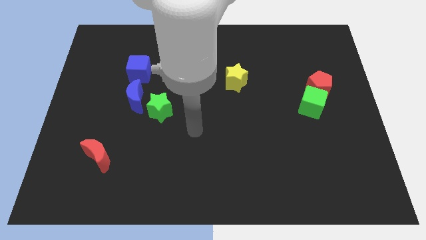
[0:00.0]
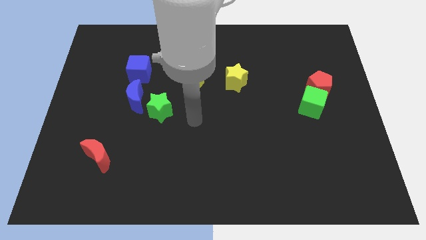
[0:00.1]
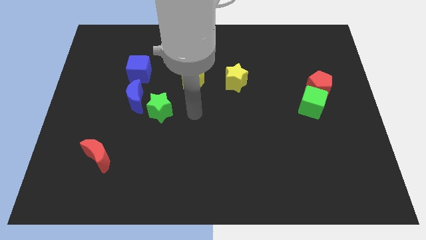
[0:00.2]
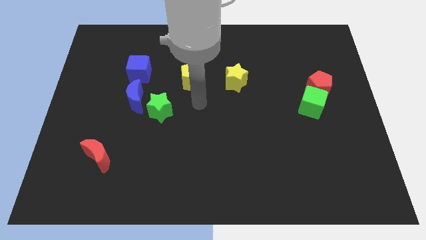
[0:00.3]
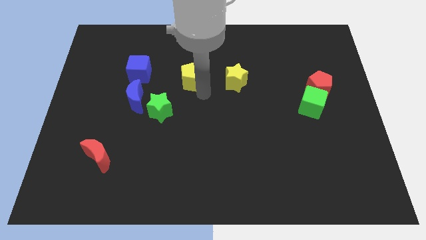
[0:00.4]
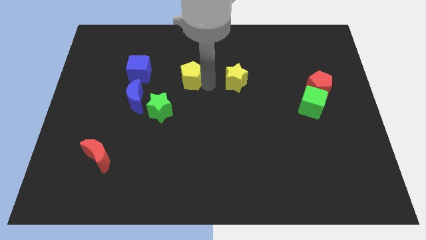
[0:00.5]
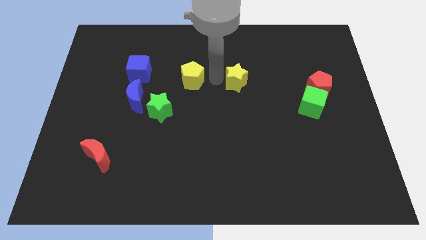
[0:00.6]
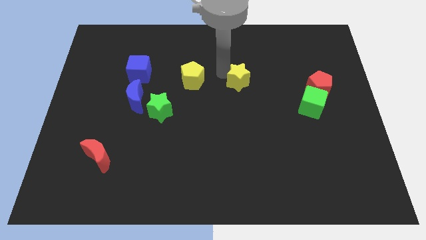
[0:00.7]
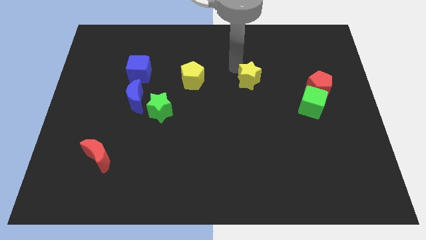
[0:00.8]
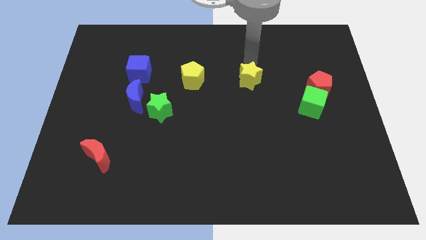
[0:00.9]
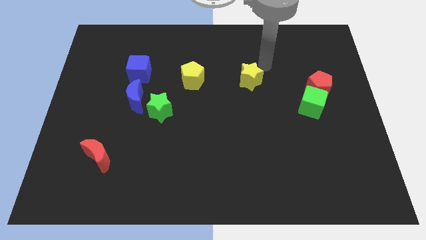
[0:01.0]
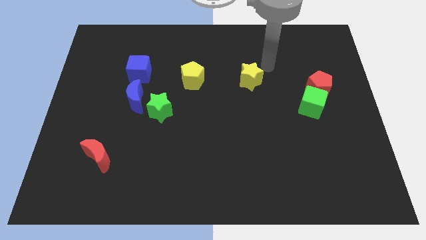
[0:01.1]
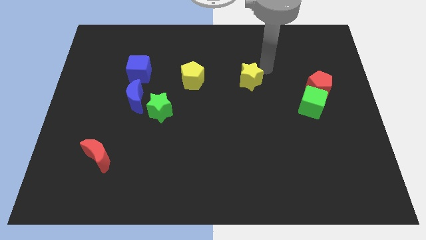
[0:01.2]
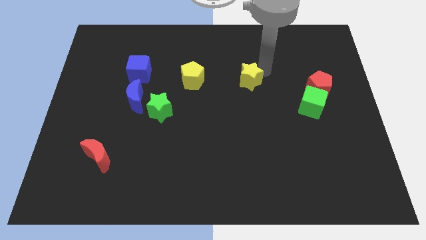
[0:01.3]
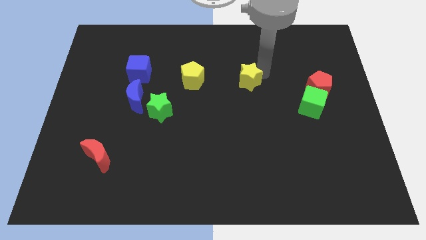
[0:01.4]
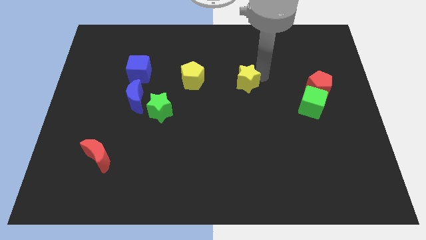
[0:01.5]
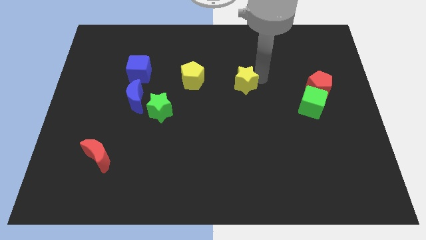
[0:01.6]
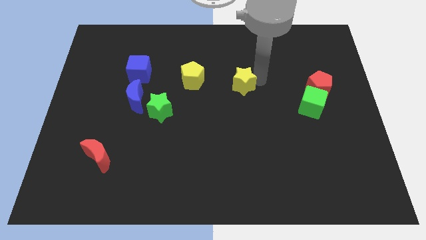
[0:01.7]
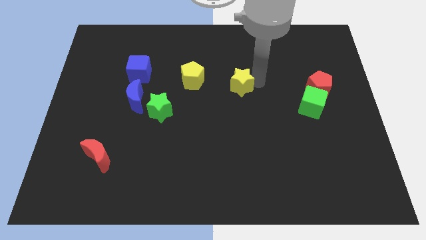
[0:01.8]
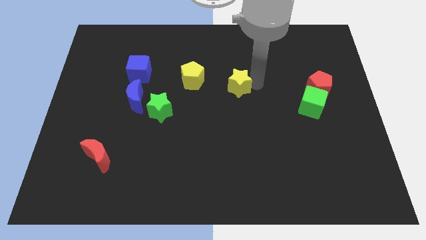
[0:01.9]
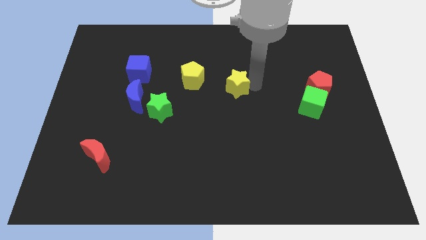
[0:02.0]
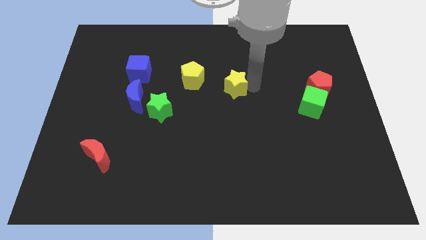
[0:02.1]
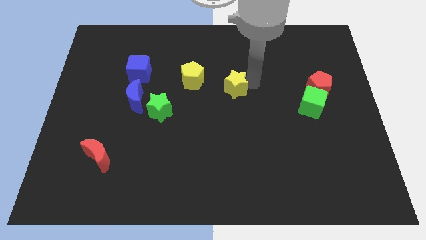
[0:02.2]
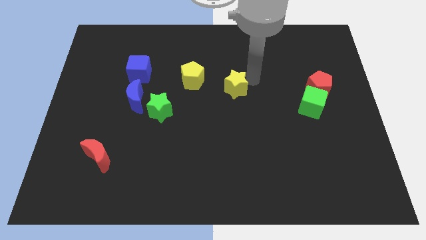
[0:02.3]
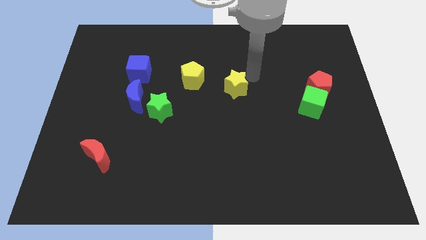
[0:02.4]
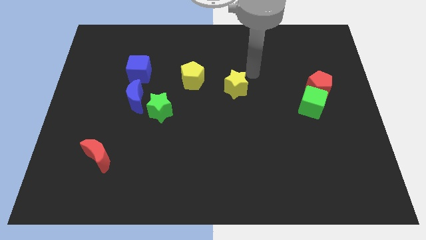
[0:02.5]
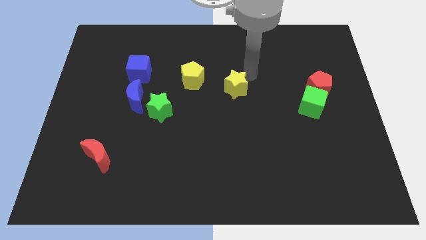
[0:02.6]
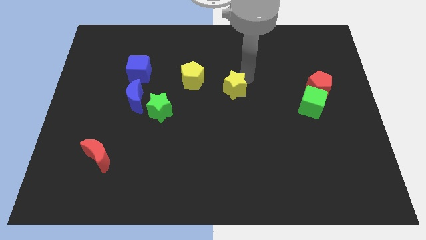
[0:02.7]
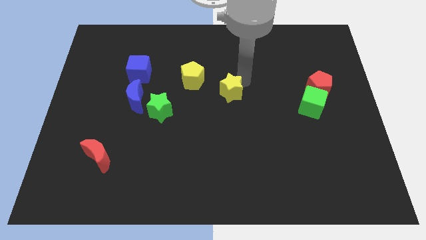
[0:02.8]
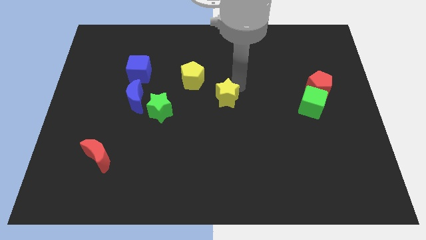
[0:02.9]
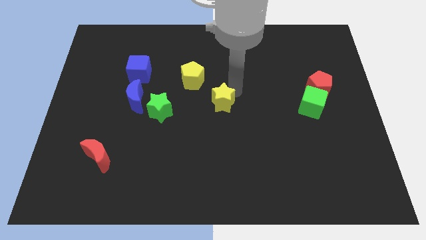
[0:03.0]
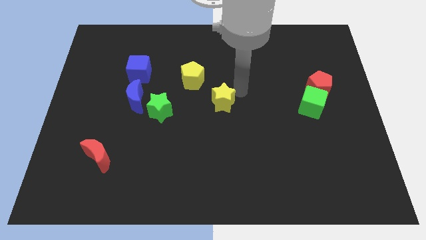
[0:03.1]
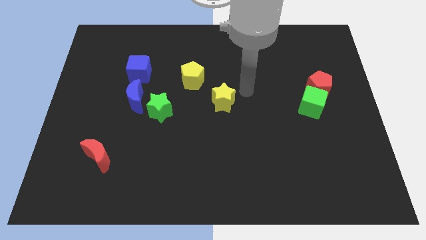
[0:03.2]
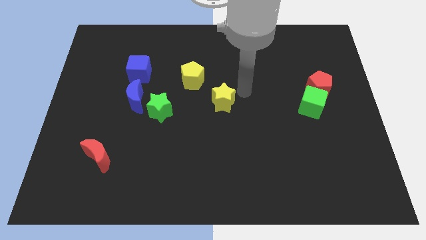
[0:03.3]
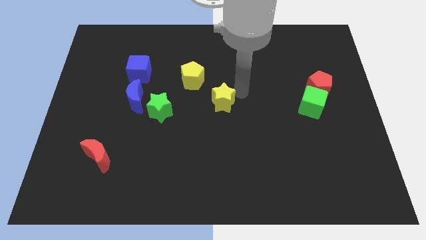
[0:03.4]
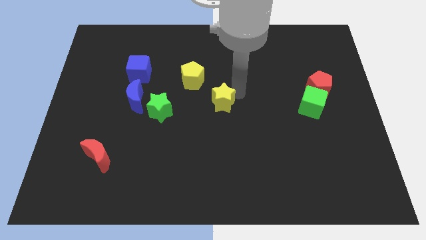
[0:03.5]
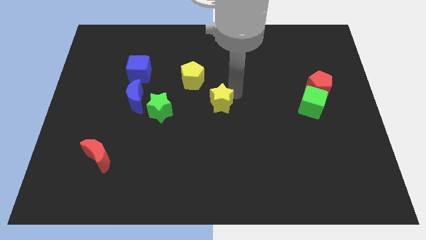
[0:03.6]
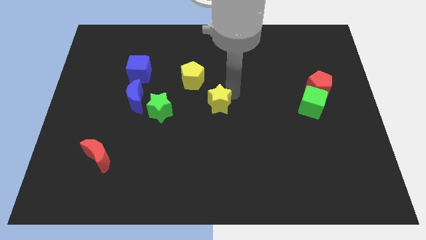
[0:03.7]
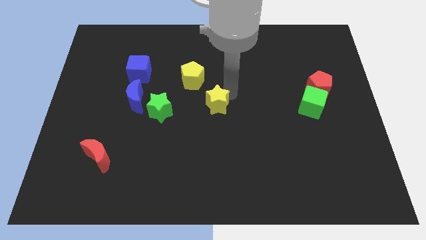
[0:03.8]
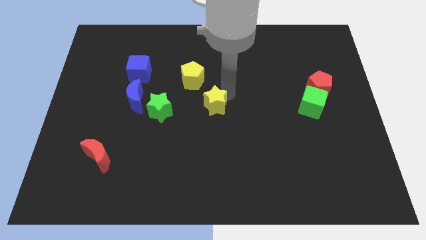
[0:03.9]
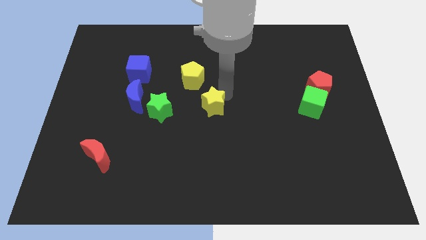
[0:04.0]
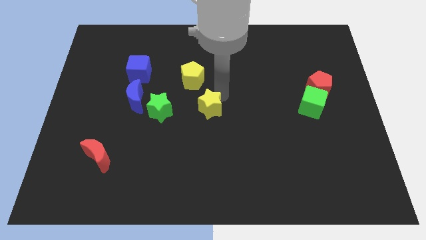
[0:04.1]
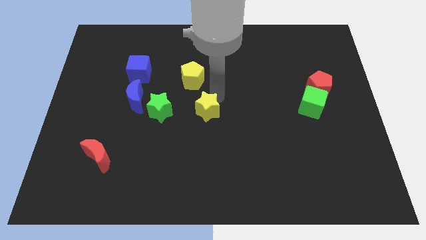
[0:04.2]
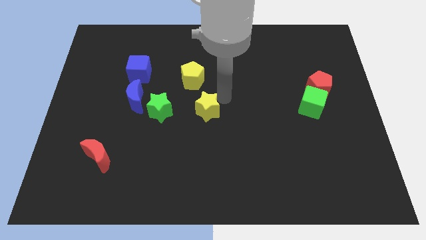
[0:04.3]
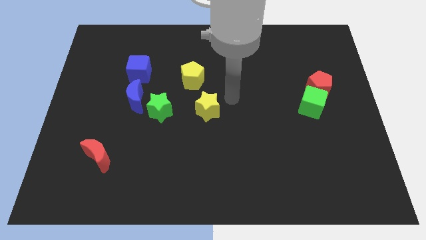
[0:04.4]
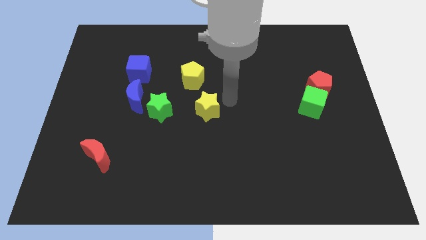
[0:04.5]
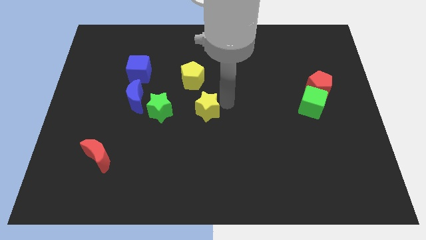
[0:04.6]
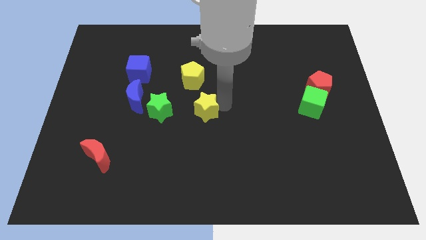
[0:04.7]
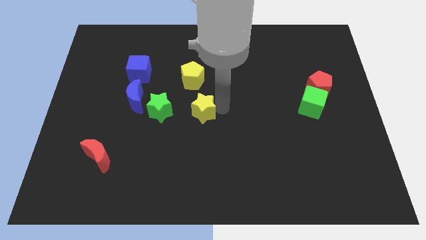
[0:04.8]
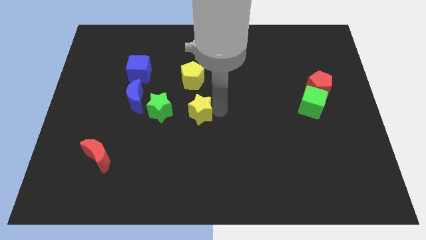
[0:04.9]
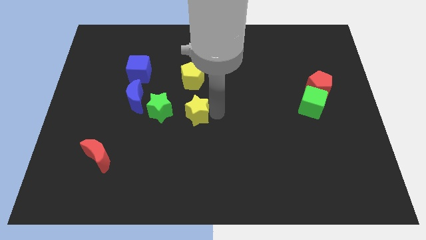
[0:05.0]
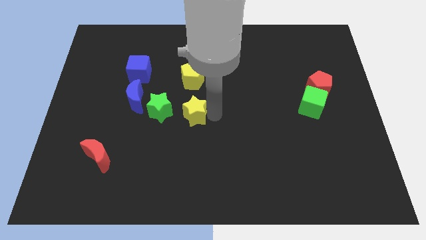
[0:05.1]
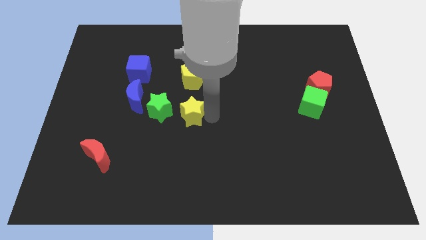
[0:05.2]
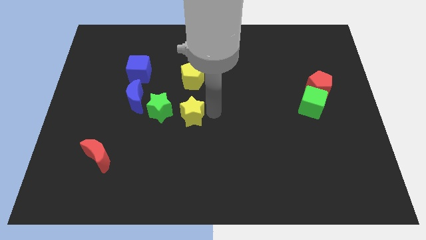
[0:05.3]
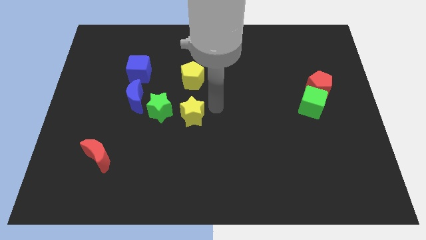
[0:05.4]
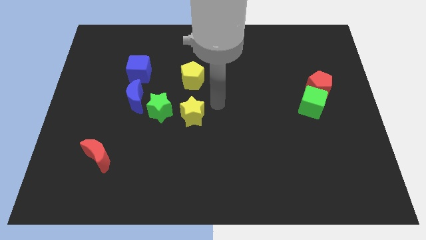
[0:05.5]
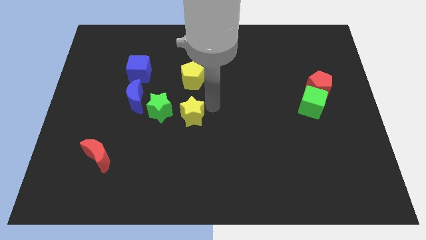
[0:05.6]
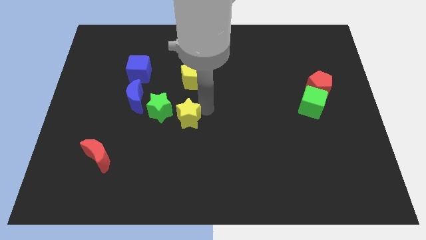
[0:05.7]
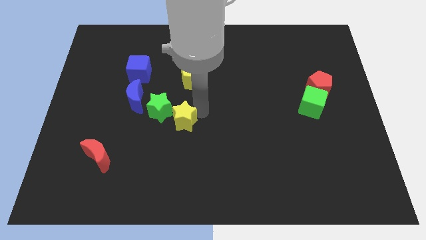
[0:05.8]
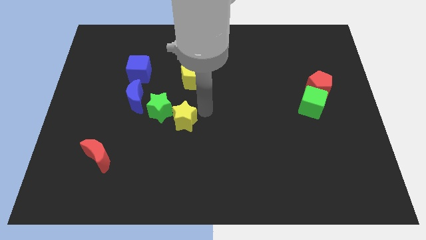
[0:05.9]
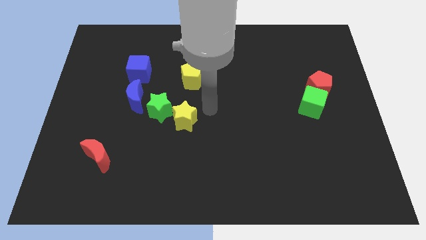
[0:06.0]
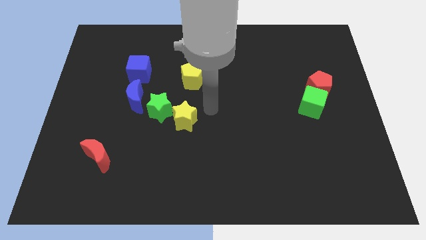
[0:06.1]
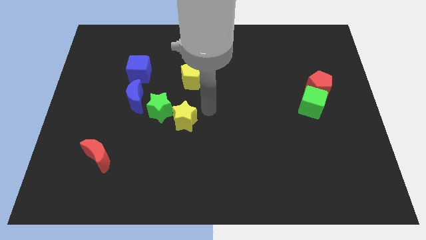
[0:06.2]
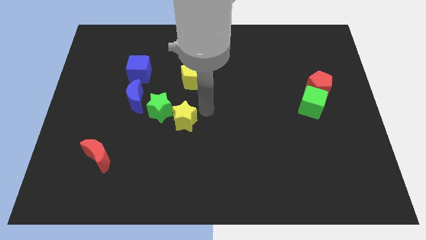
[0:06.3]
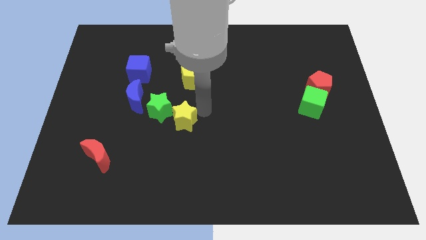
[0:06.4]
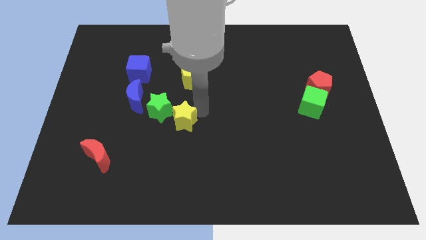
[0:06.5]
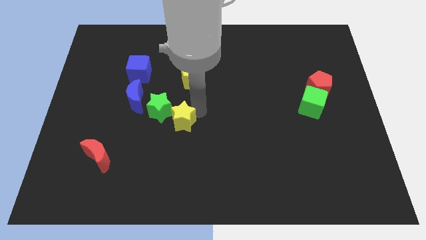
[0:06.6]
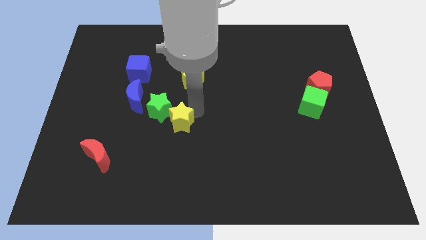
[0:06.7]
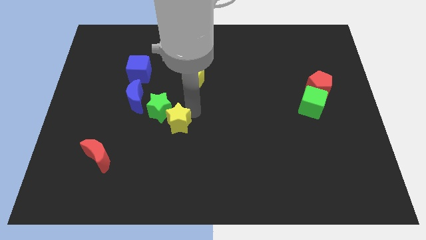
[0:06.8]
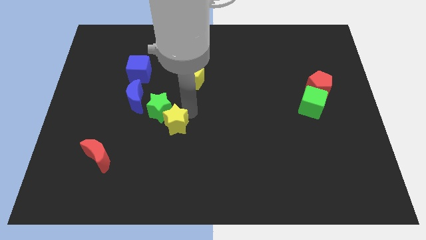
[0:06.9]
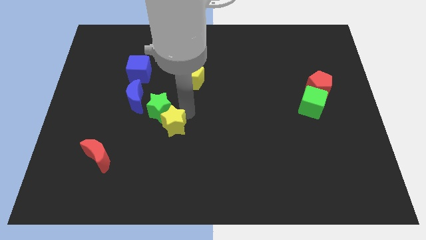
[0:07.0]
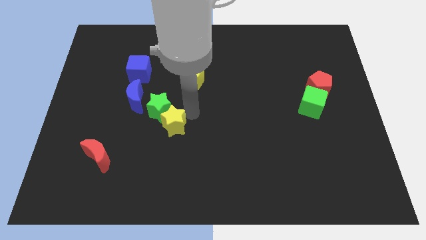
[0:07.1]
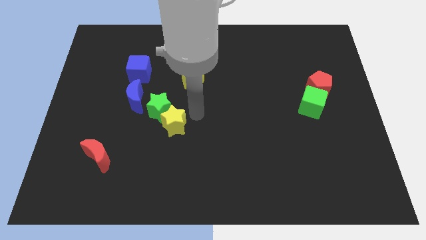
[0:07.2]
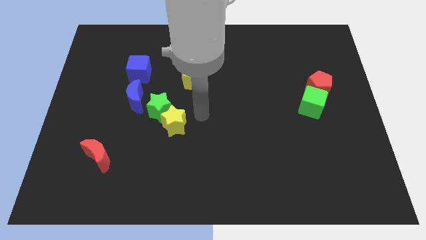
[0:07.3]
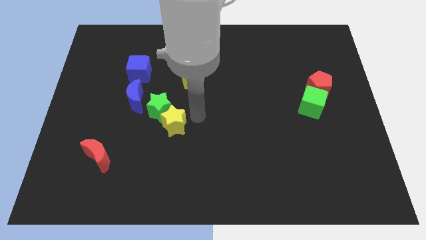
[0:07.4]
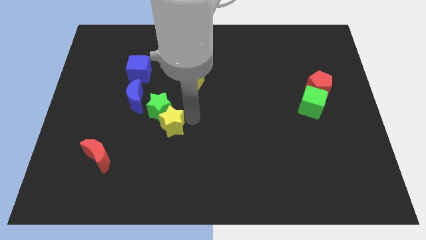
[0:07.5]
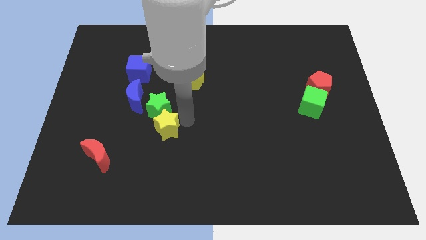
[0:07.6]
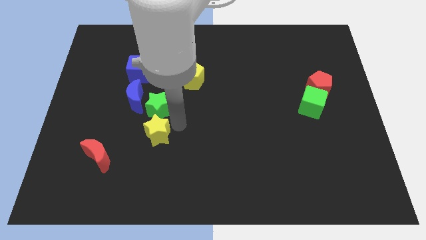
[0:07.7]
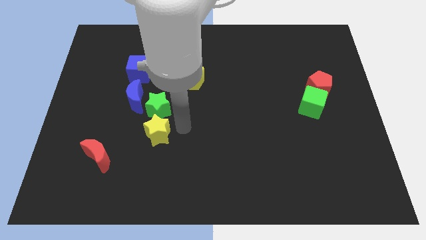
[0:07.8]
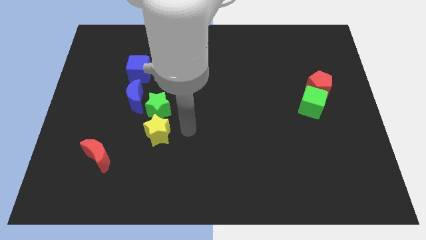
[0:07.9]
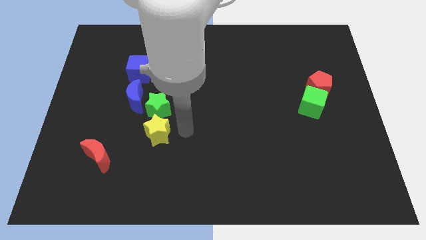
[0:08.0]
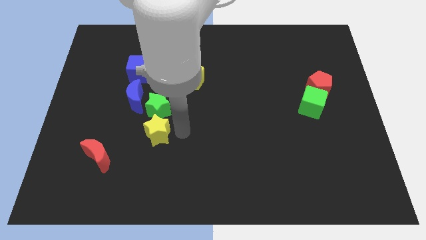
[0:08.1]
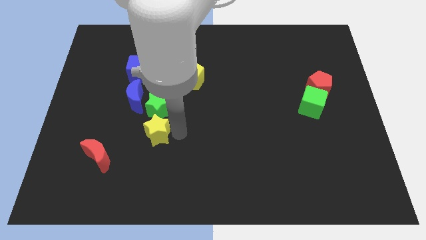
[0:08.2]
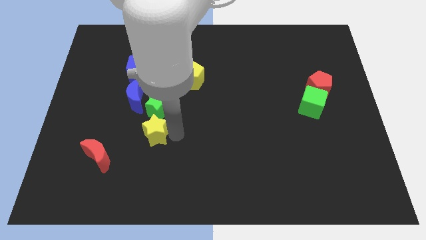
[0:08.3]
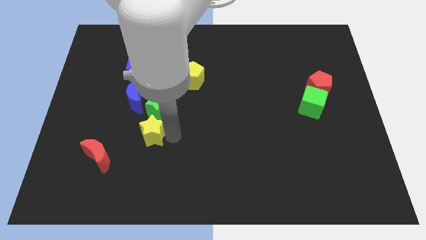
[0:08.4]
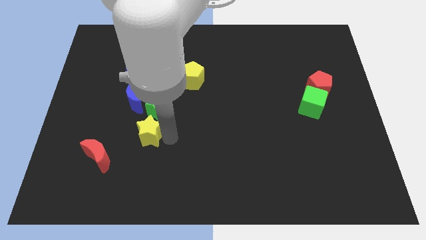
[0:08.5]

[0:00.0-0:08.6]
put the yellow star to the bottom of the blue moon
